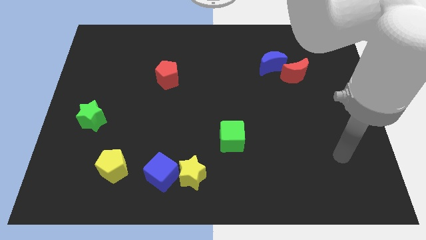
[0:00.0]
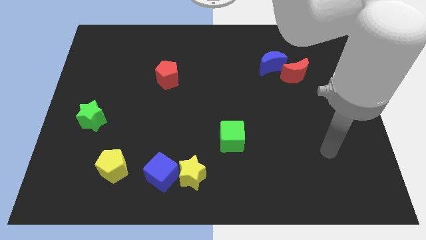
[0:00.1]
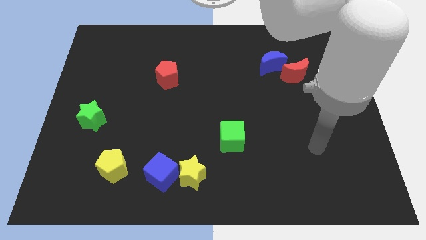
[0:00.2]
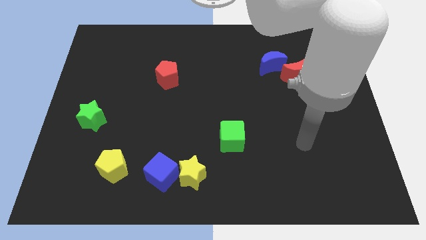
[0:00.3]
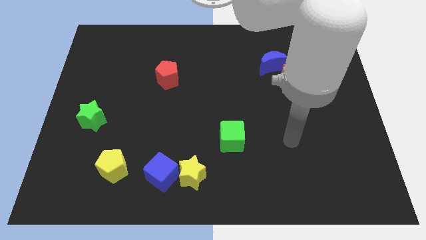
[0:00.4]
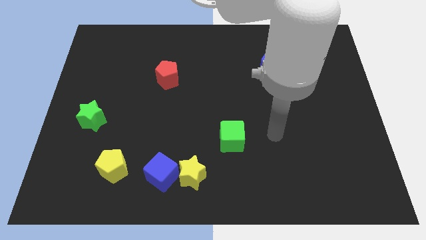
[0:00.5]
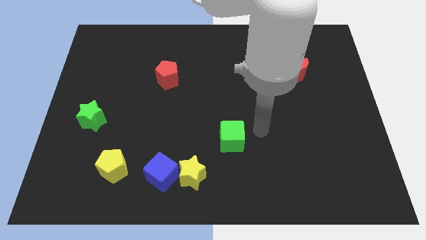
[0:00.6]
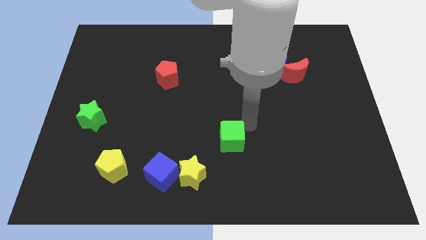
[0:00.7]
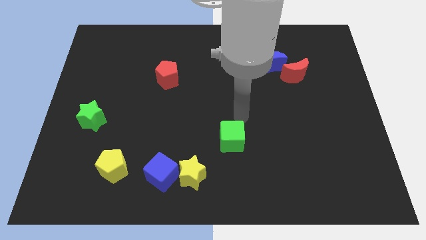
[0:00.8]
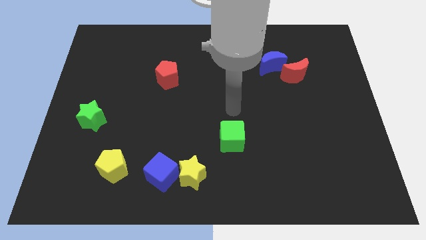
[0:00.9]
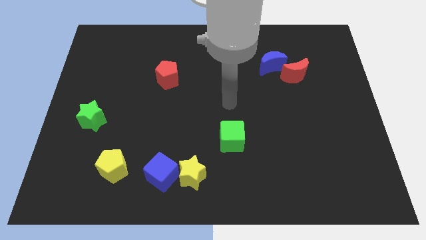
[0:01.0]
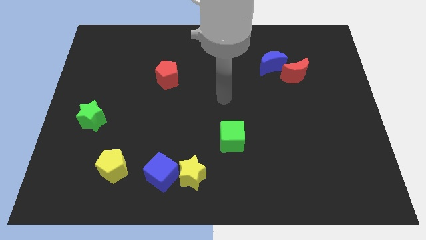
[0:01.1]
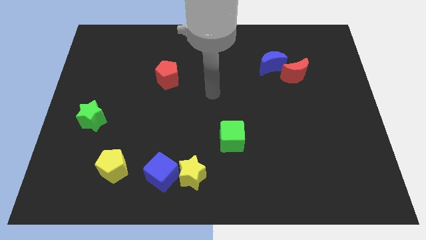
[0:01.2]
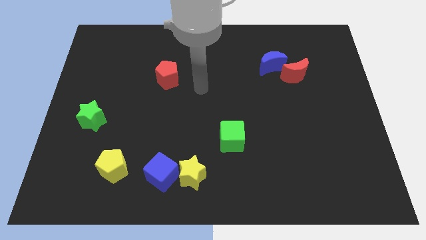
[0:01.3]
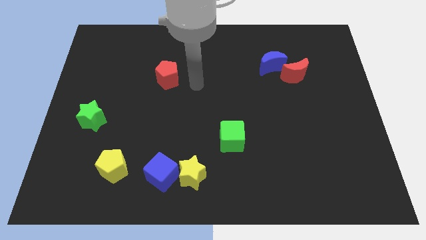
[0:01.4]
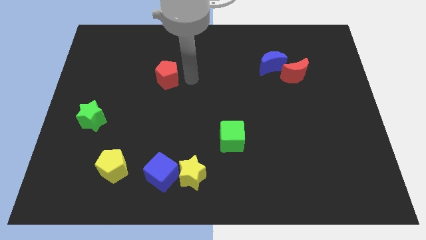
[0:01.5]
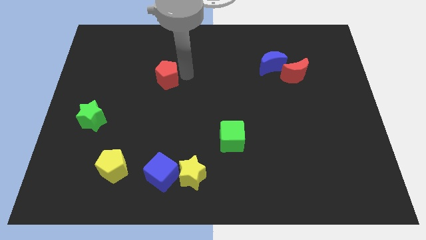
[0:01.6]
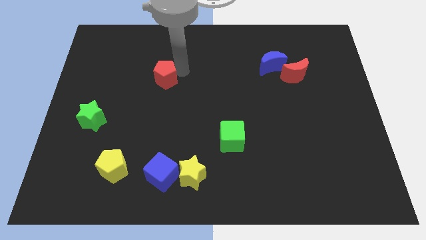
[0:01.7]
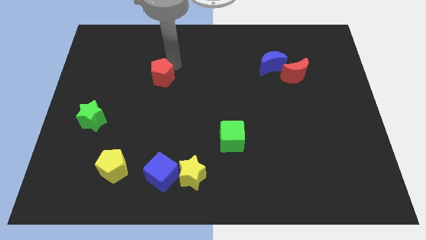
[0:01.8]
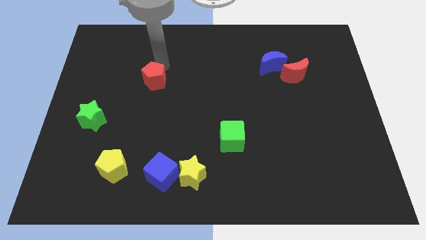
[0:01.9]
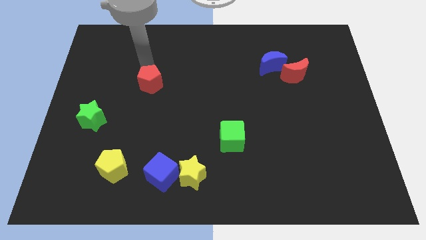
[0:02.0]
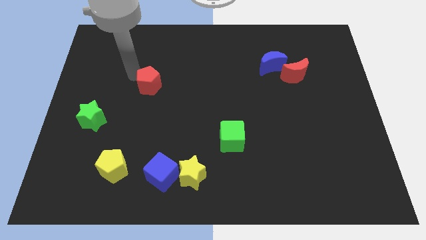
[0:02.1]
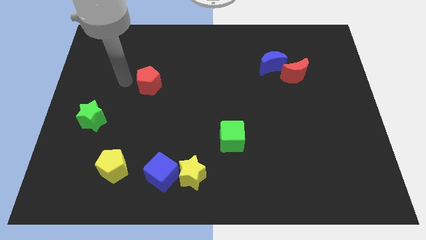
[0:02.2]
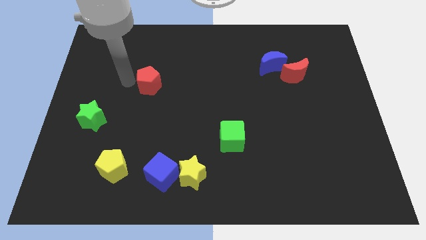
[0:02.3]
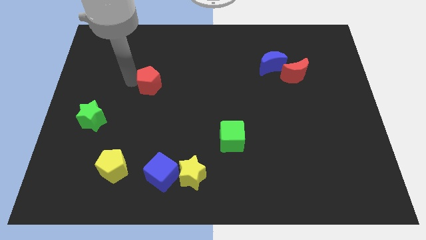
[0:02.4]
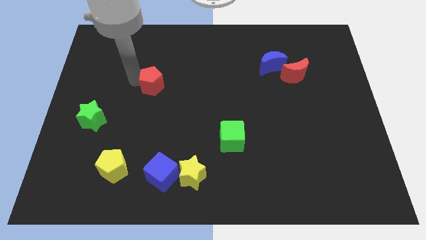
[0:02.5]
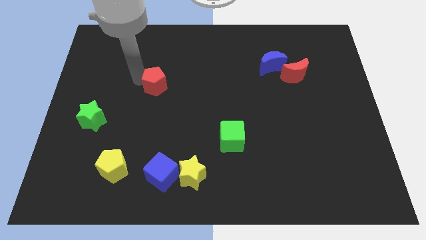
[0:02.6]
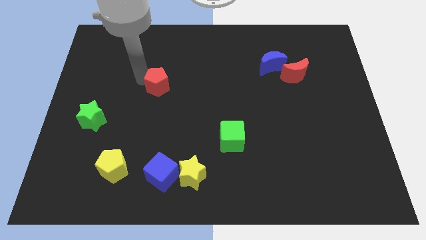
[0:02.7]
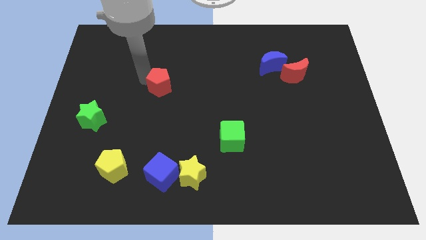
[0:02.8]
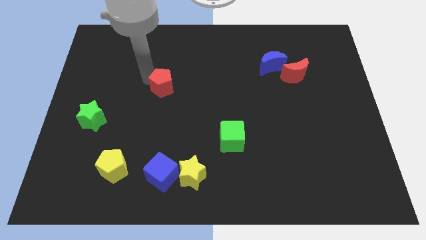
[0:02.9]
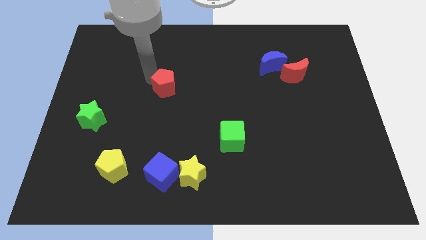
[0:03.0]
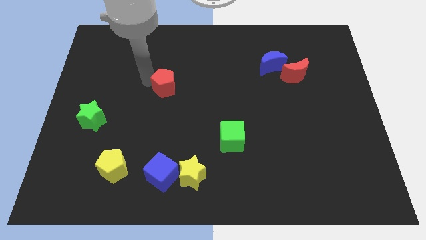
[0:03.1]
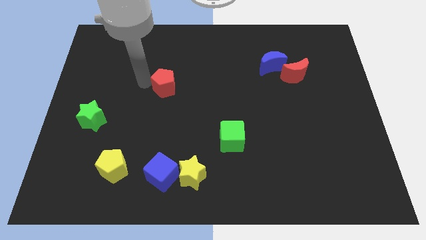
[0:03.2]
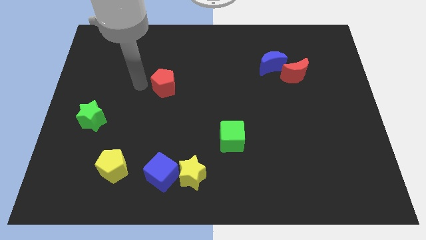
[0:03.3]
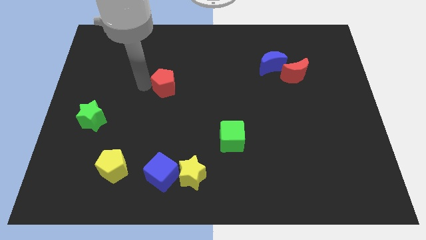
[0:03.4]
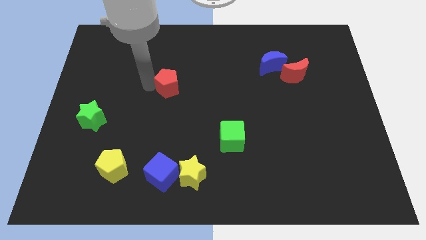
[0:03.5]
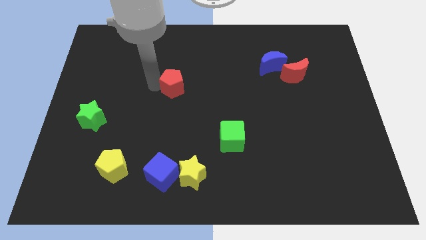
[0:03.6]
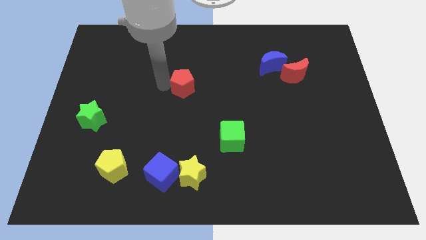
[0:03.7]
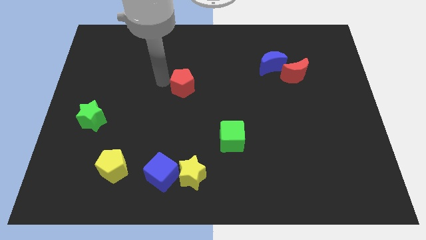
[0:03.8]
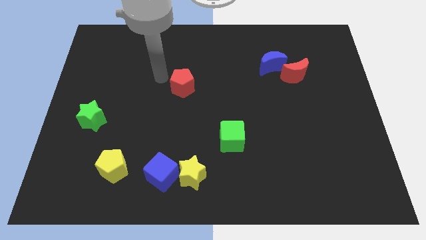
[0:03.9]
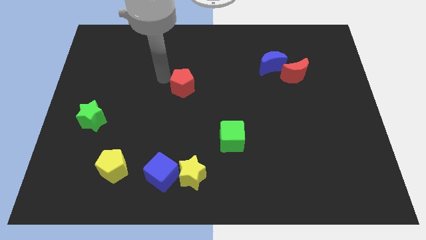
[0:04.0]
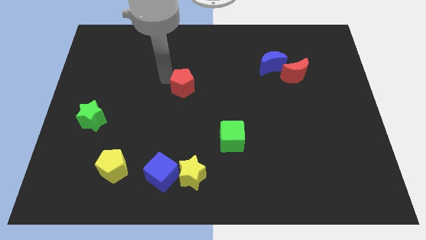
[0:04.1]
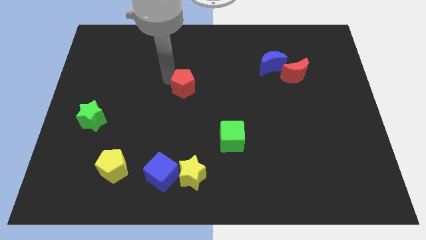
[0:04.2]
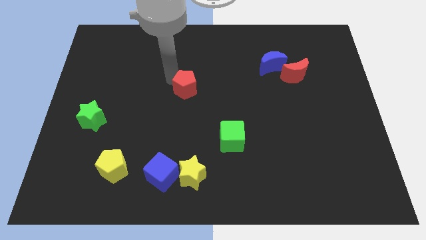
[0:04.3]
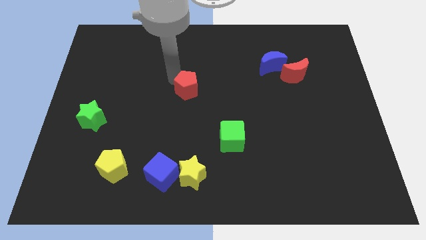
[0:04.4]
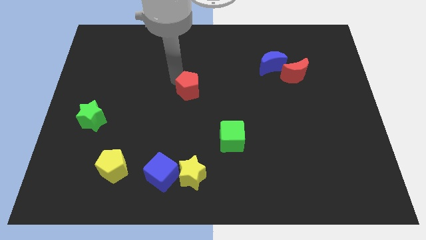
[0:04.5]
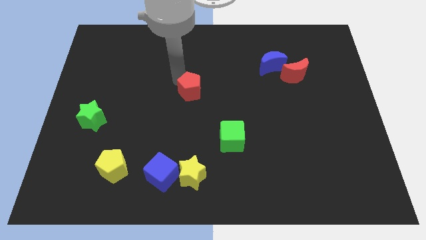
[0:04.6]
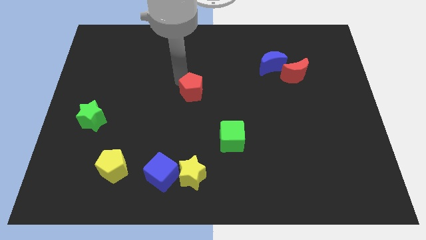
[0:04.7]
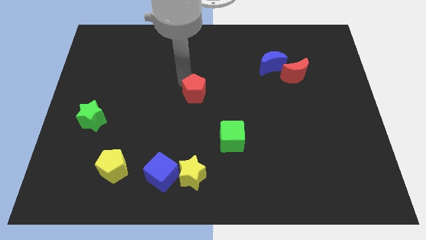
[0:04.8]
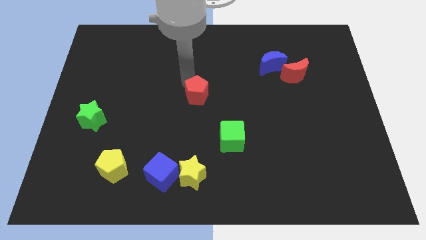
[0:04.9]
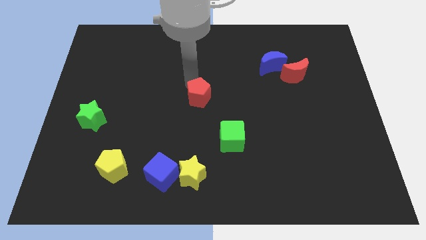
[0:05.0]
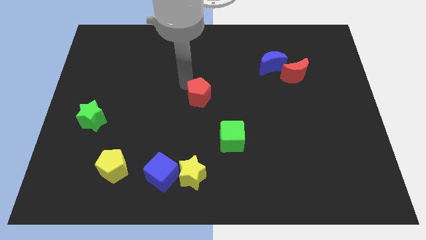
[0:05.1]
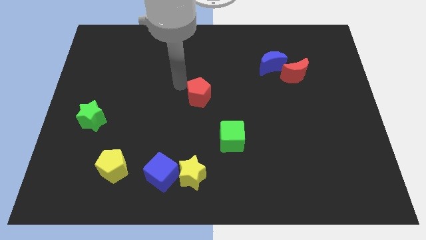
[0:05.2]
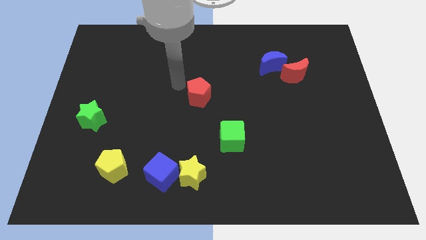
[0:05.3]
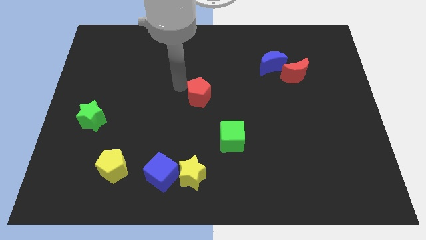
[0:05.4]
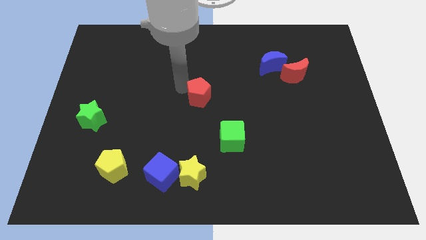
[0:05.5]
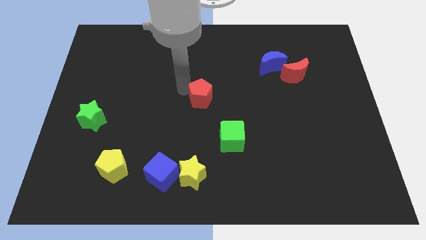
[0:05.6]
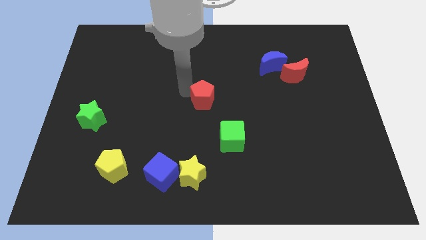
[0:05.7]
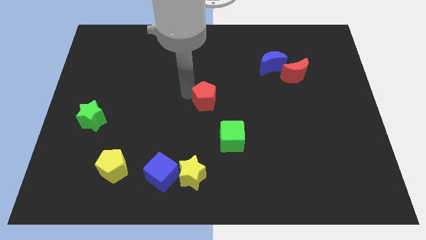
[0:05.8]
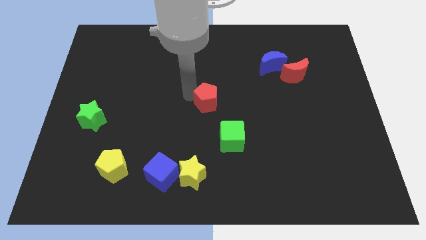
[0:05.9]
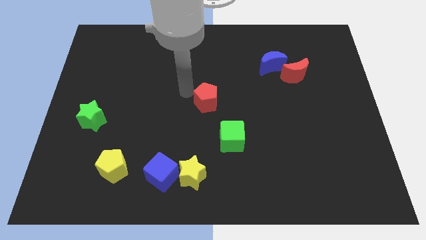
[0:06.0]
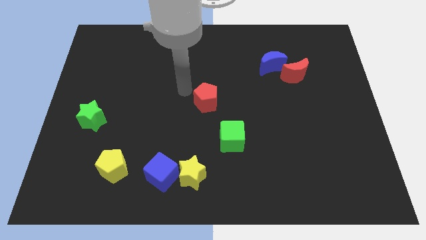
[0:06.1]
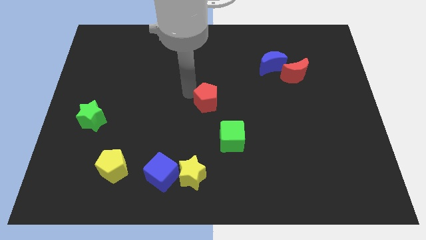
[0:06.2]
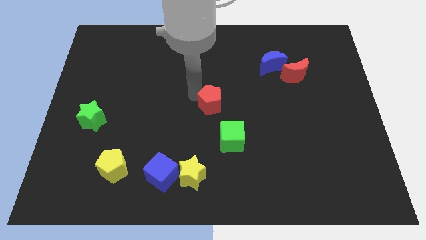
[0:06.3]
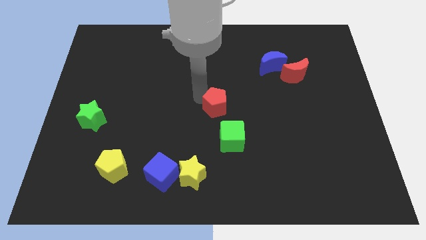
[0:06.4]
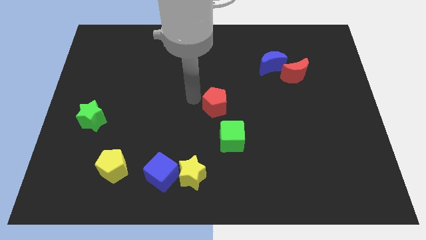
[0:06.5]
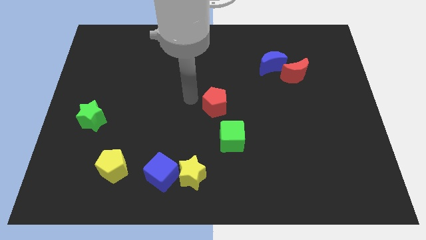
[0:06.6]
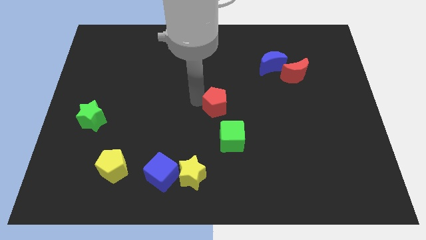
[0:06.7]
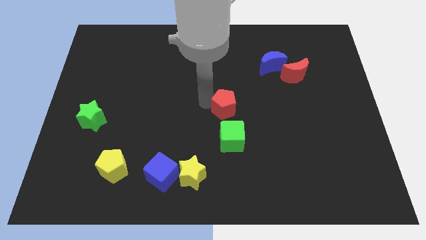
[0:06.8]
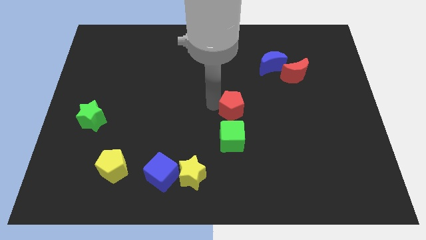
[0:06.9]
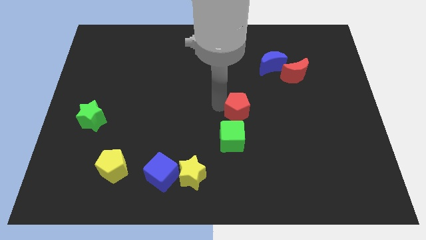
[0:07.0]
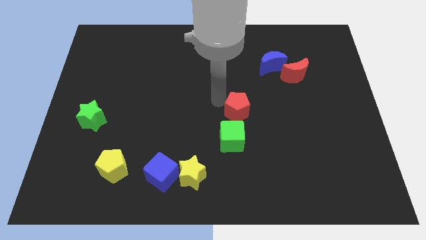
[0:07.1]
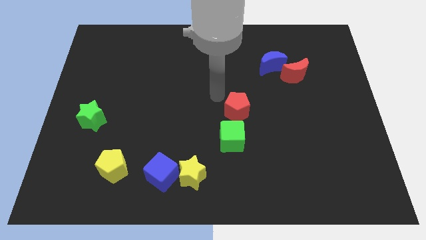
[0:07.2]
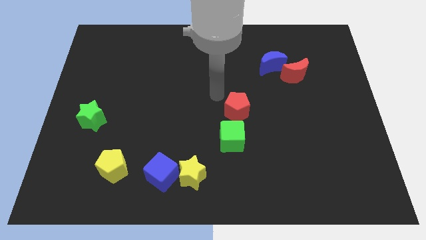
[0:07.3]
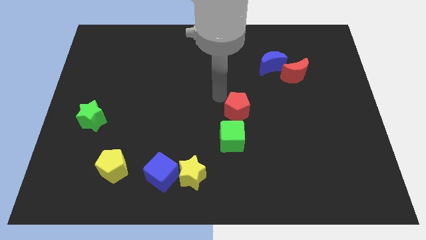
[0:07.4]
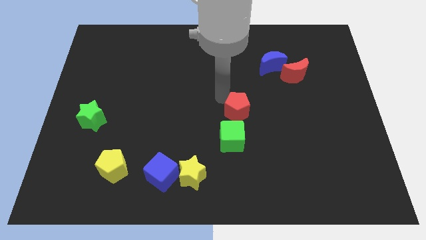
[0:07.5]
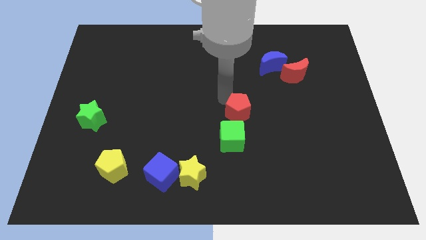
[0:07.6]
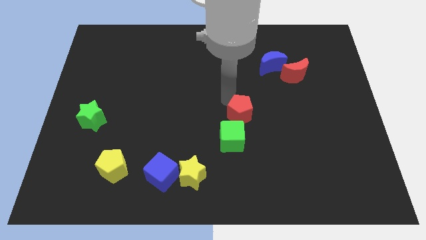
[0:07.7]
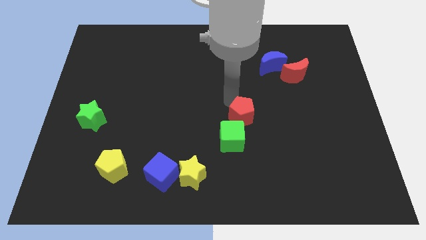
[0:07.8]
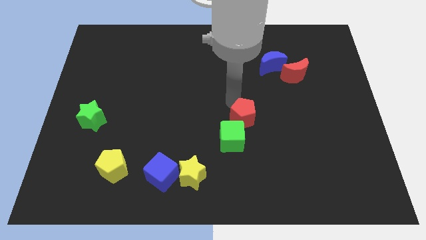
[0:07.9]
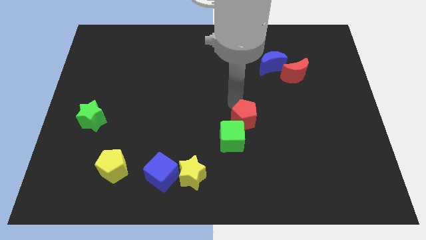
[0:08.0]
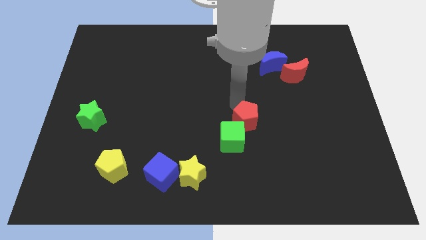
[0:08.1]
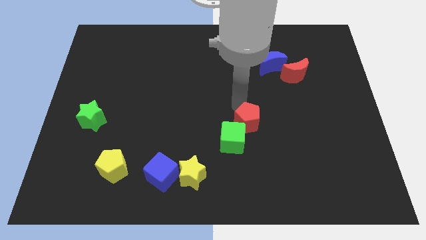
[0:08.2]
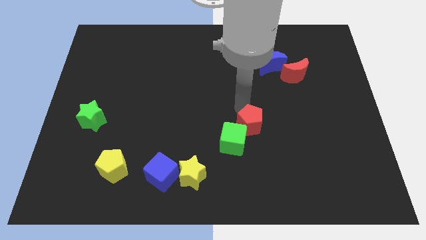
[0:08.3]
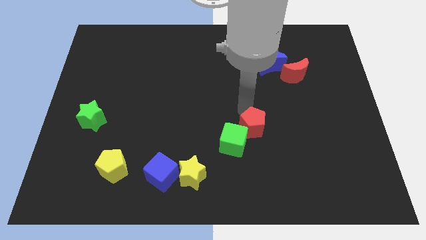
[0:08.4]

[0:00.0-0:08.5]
put the red pentagon right of the green cube
